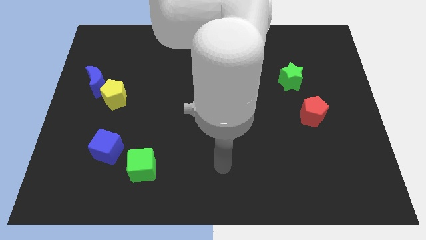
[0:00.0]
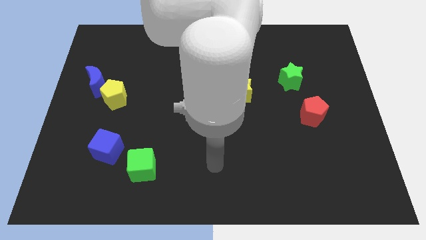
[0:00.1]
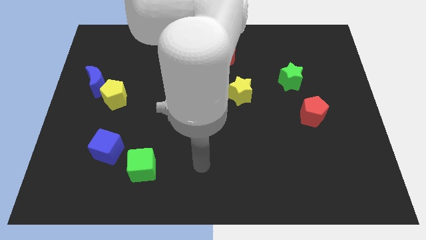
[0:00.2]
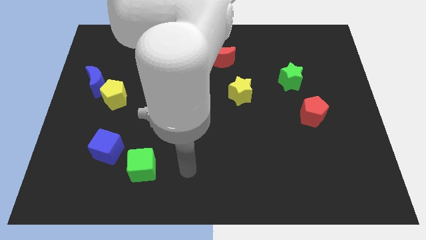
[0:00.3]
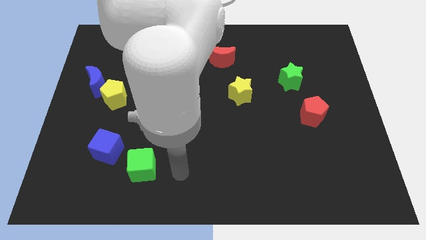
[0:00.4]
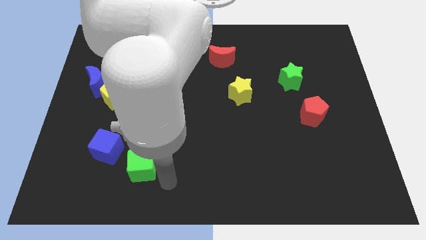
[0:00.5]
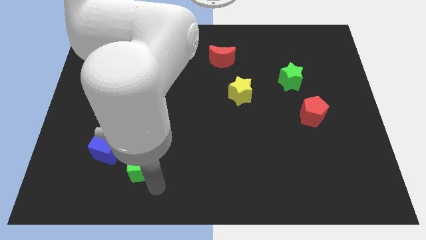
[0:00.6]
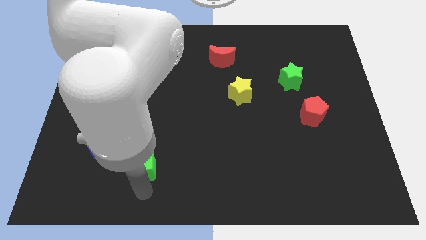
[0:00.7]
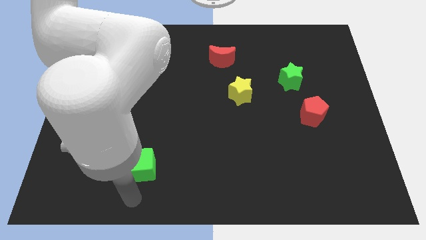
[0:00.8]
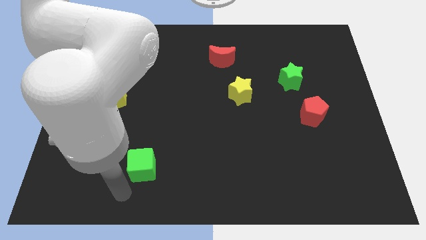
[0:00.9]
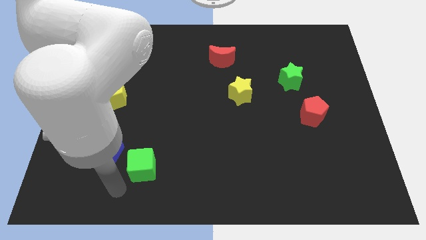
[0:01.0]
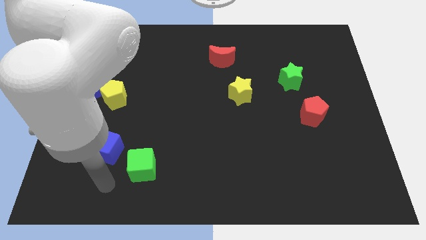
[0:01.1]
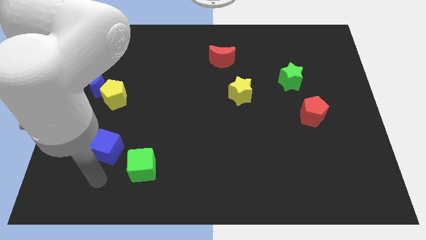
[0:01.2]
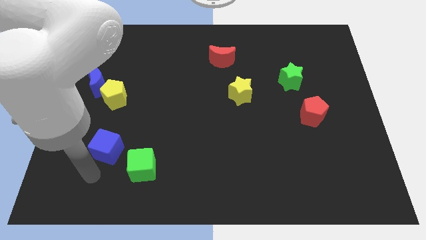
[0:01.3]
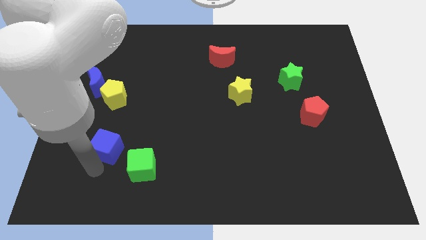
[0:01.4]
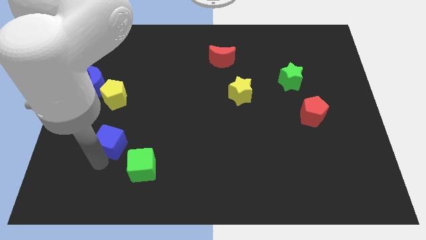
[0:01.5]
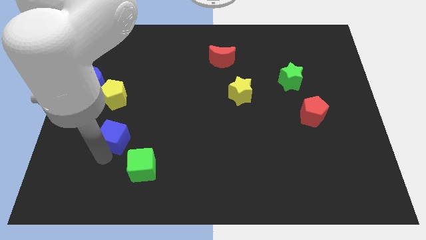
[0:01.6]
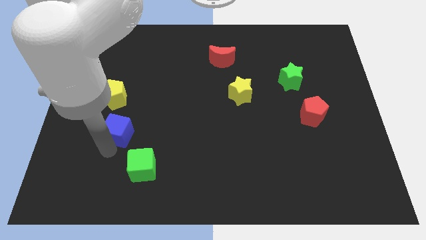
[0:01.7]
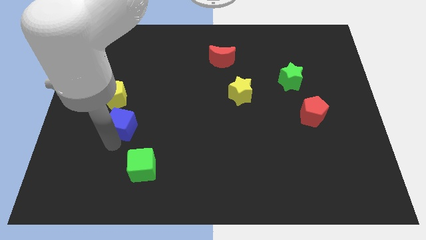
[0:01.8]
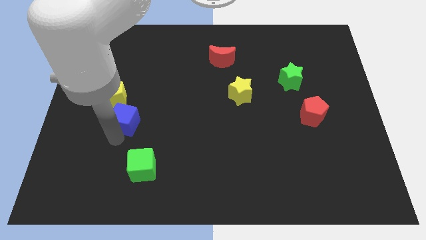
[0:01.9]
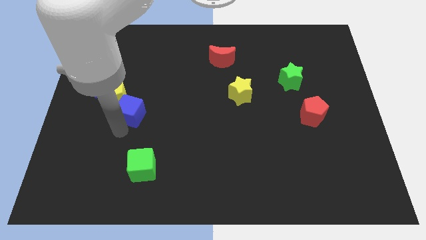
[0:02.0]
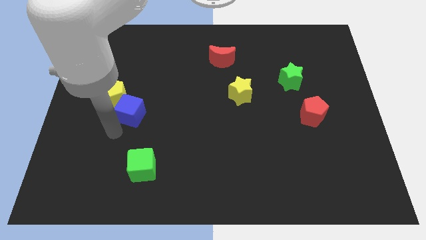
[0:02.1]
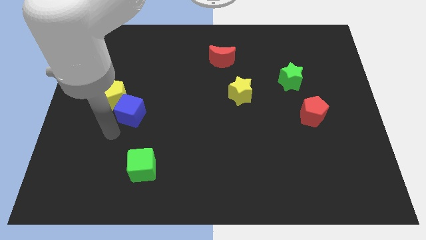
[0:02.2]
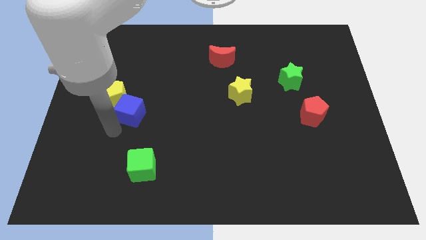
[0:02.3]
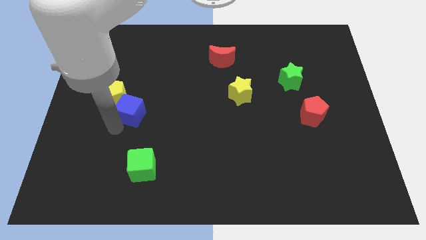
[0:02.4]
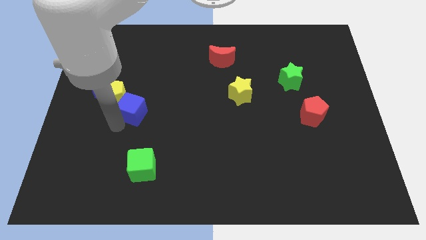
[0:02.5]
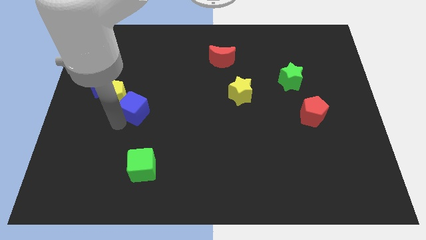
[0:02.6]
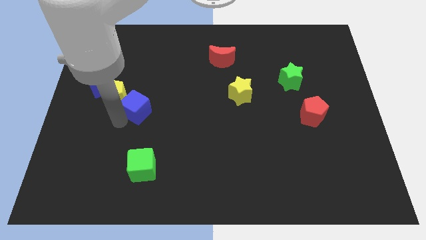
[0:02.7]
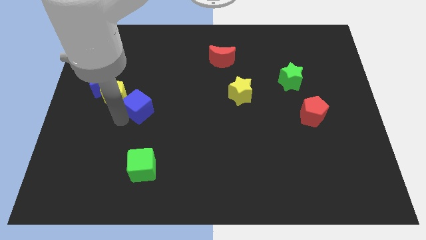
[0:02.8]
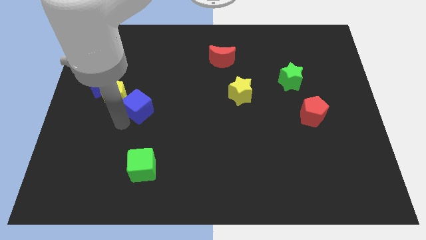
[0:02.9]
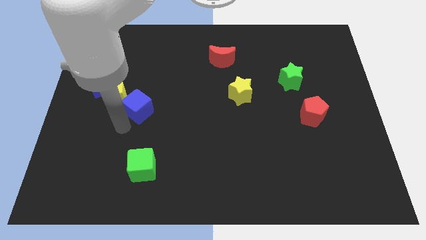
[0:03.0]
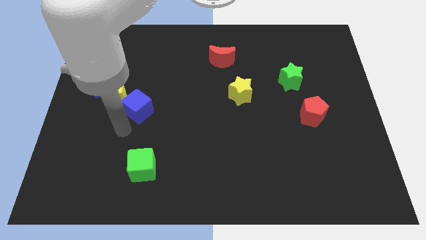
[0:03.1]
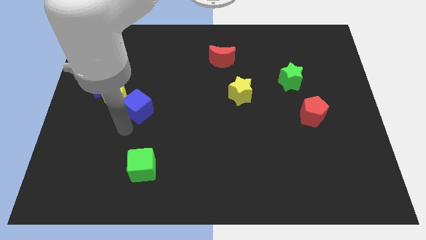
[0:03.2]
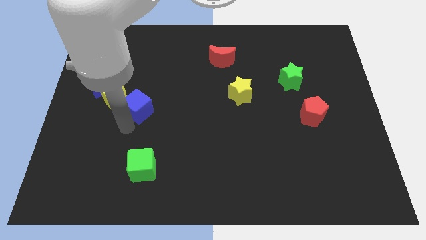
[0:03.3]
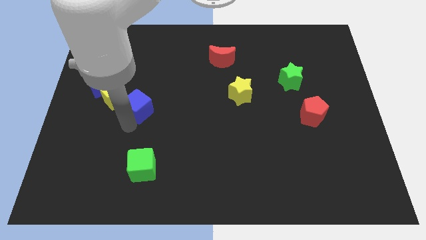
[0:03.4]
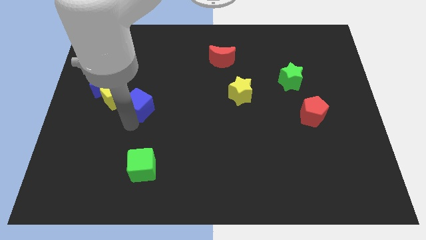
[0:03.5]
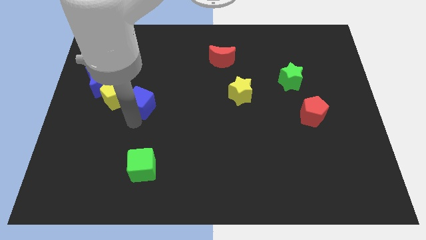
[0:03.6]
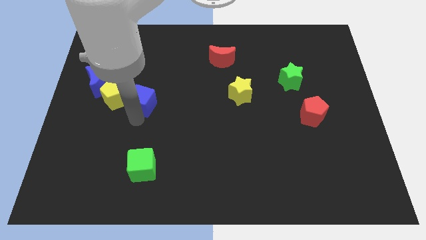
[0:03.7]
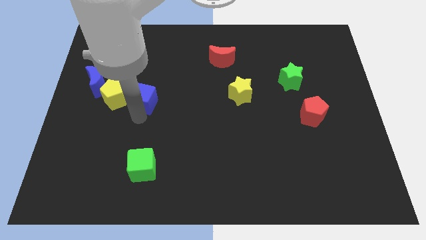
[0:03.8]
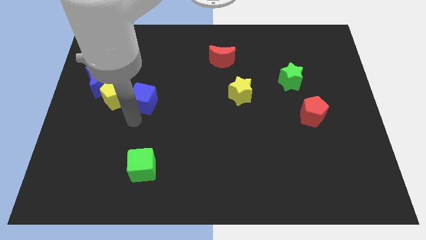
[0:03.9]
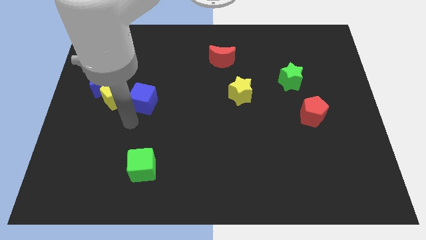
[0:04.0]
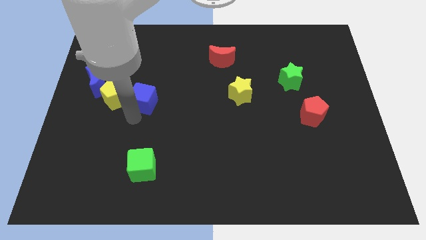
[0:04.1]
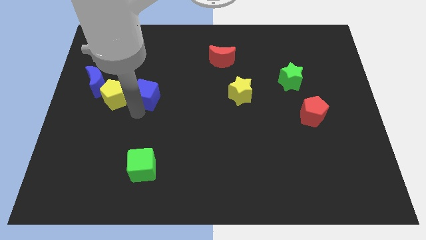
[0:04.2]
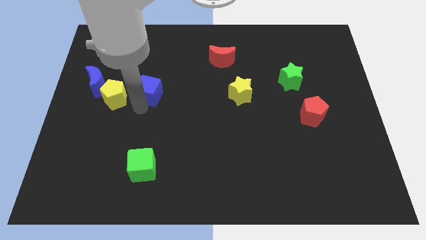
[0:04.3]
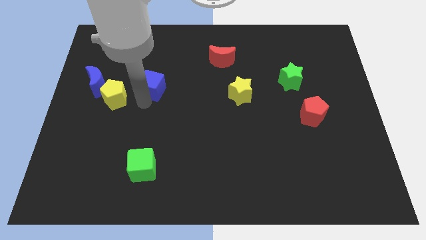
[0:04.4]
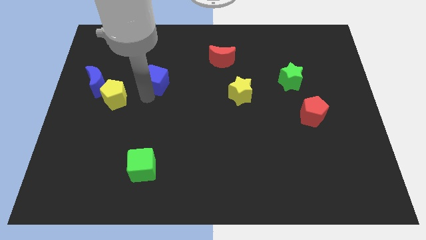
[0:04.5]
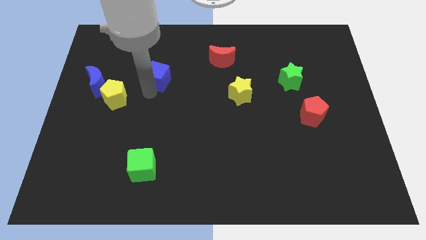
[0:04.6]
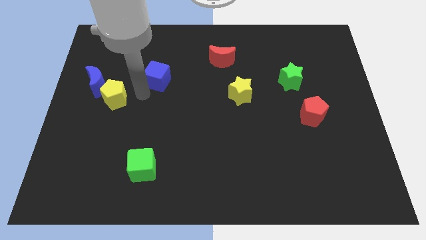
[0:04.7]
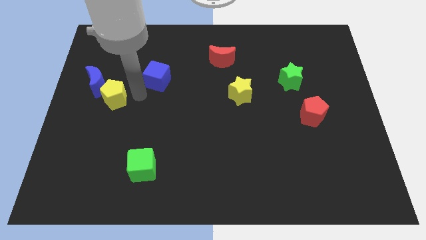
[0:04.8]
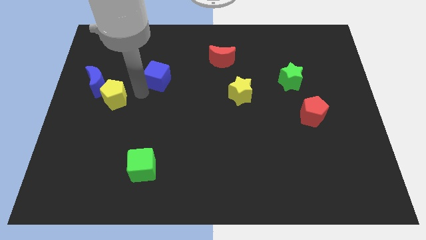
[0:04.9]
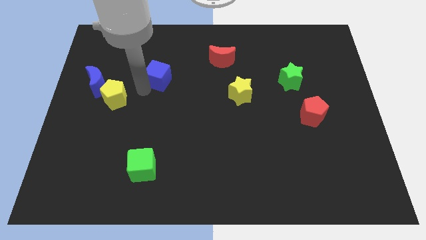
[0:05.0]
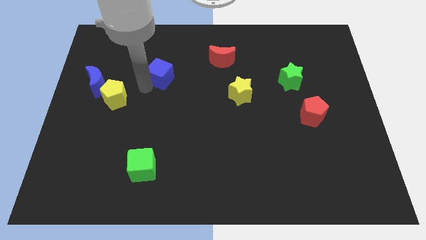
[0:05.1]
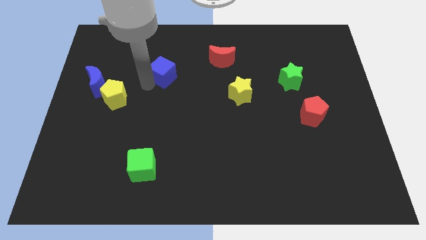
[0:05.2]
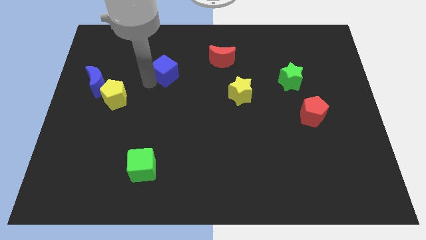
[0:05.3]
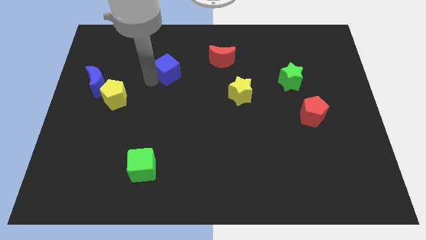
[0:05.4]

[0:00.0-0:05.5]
slide the blue cube to the left side of the red moon

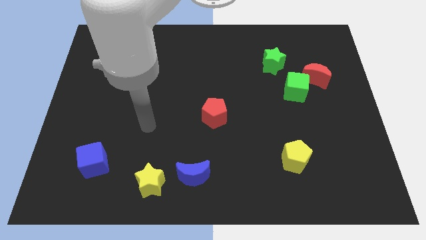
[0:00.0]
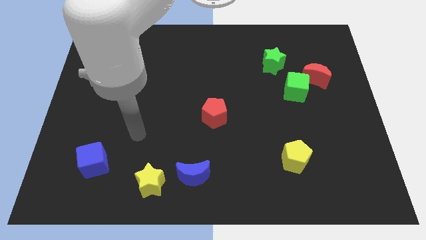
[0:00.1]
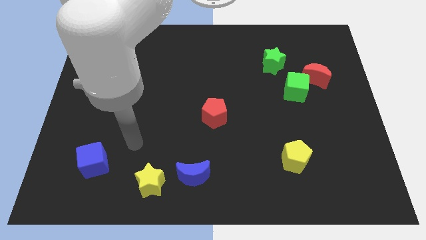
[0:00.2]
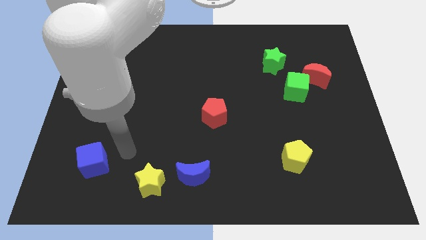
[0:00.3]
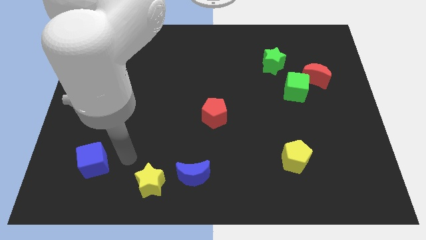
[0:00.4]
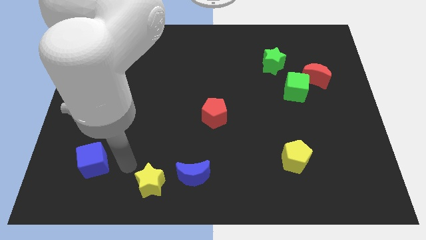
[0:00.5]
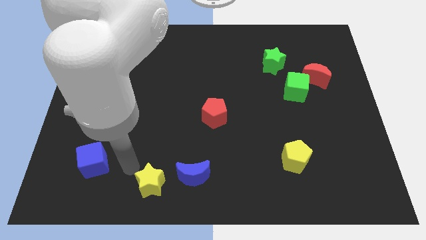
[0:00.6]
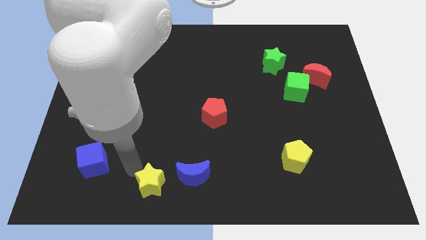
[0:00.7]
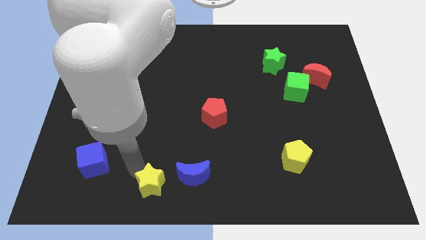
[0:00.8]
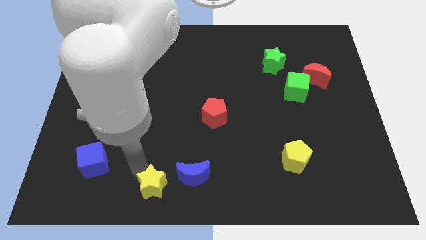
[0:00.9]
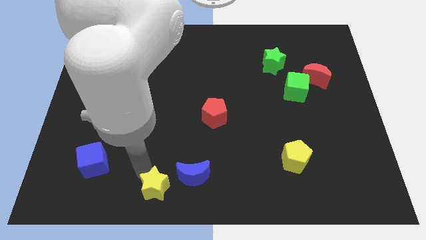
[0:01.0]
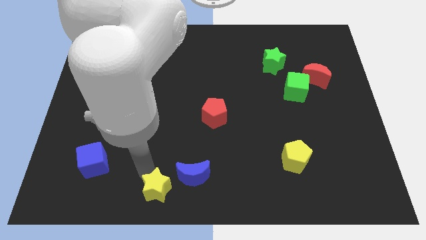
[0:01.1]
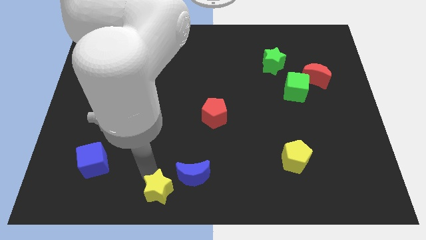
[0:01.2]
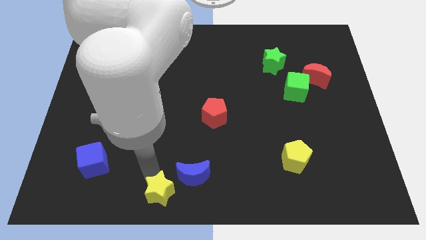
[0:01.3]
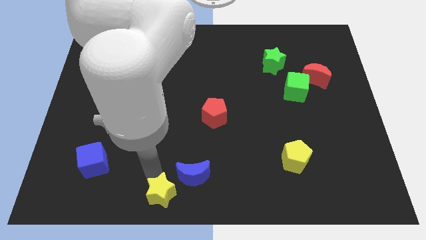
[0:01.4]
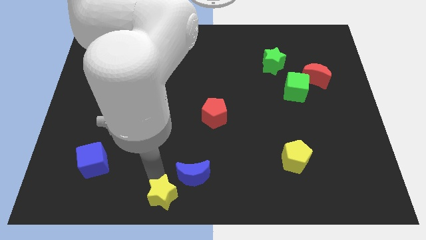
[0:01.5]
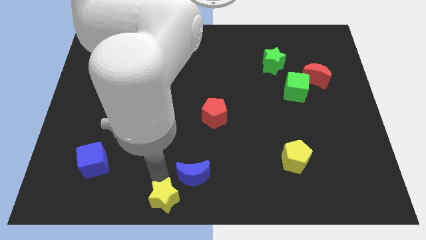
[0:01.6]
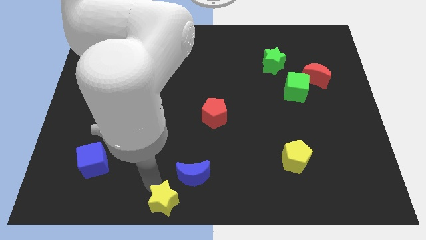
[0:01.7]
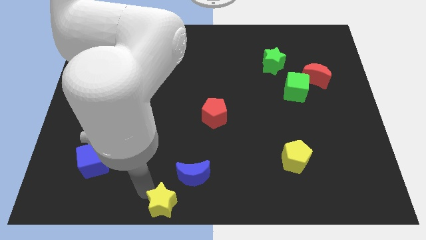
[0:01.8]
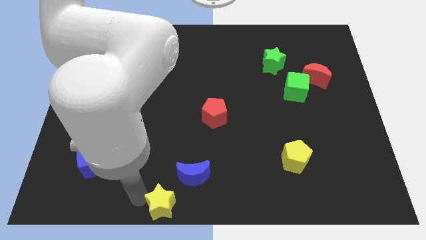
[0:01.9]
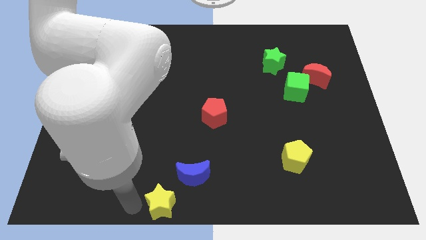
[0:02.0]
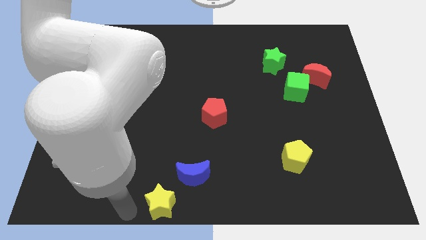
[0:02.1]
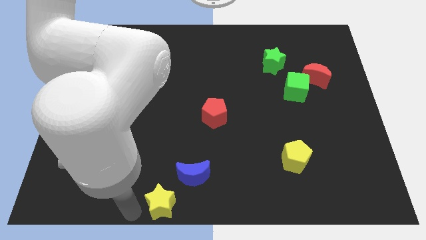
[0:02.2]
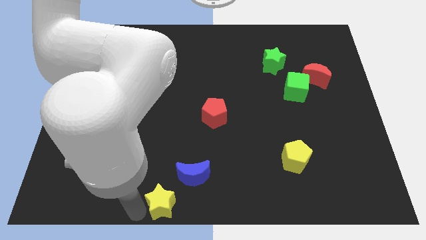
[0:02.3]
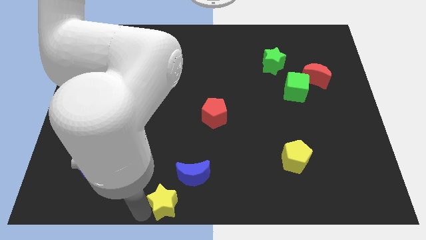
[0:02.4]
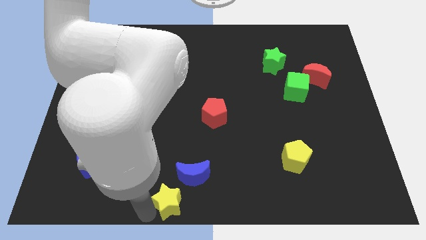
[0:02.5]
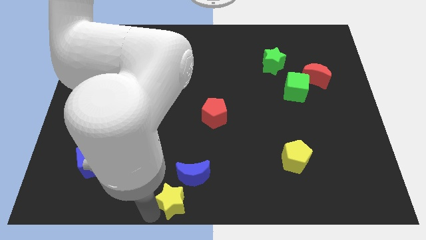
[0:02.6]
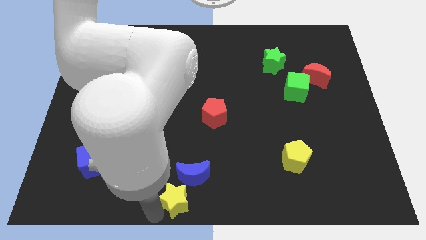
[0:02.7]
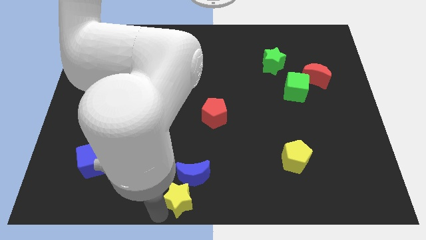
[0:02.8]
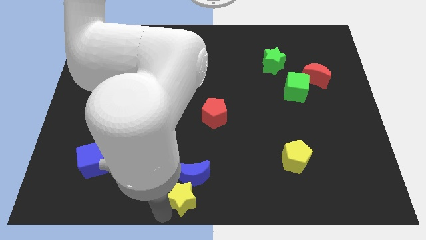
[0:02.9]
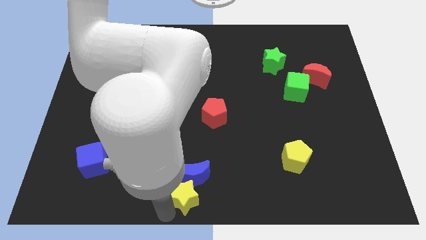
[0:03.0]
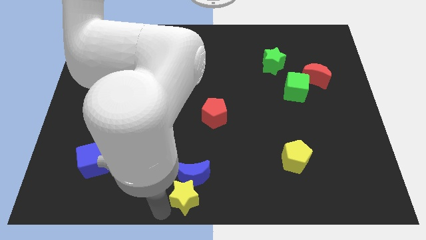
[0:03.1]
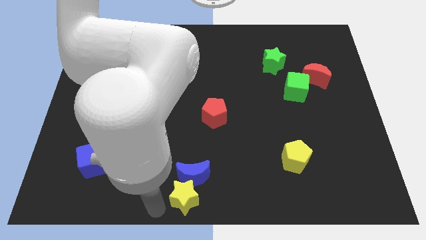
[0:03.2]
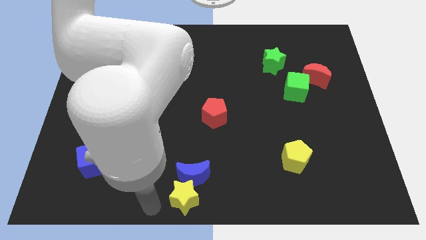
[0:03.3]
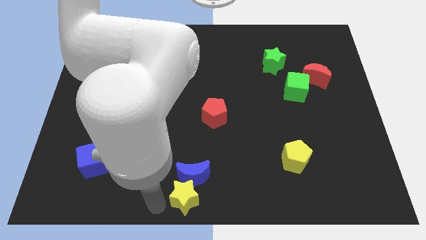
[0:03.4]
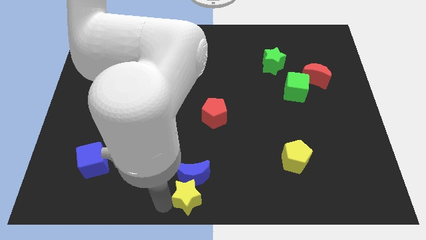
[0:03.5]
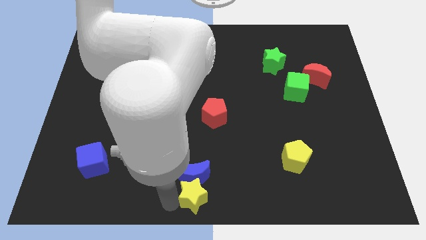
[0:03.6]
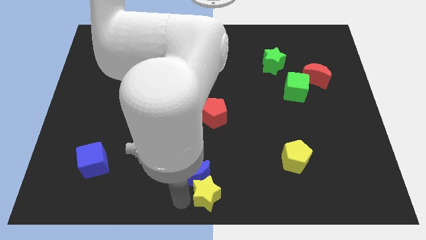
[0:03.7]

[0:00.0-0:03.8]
slide the yellow star to the right side of the blue moon
